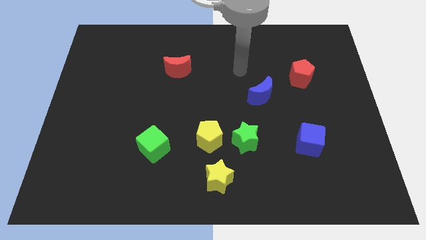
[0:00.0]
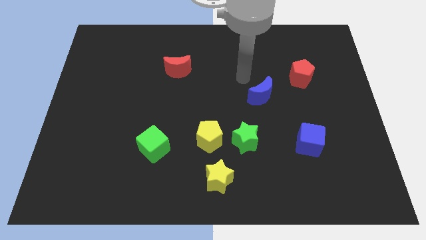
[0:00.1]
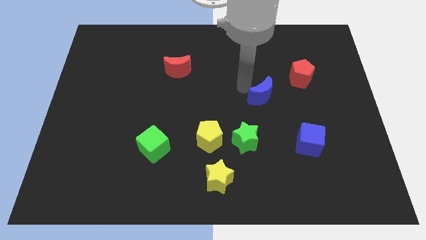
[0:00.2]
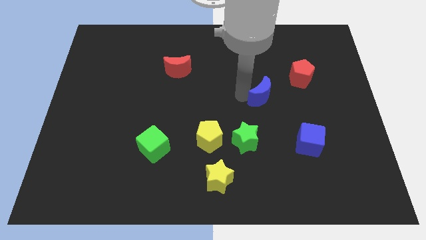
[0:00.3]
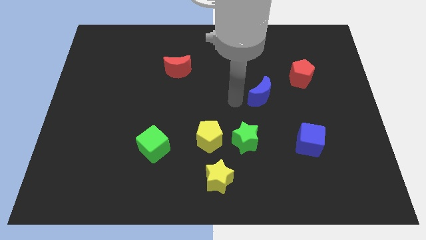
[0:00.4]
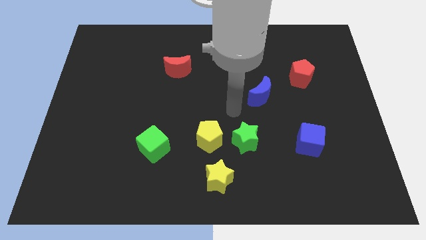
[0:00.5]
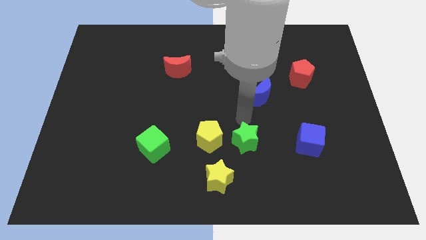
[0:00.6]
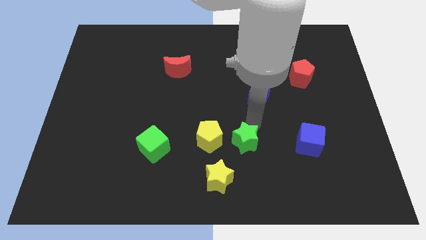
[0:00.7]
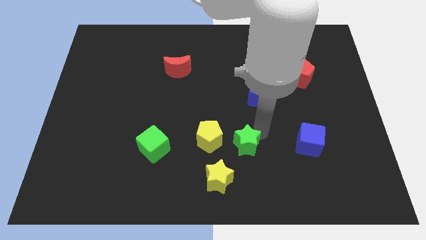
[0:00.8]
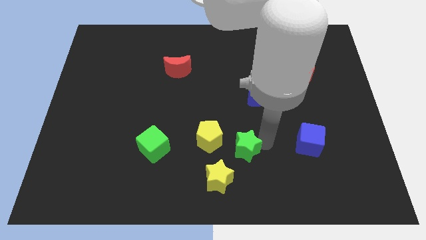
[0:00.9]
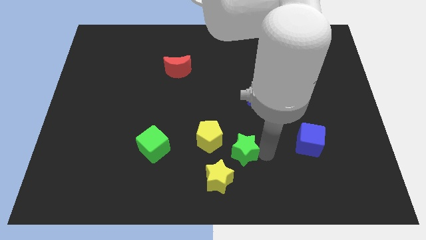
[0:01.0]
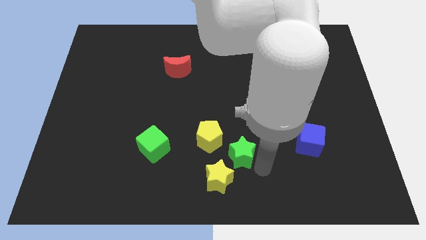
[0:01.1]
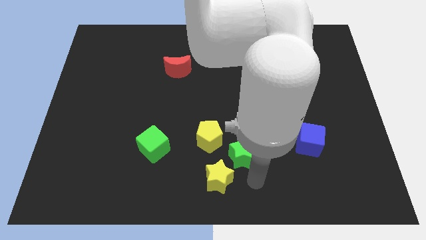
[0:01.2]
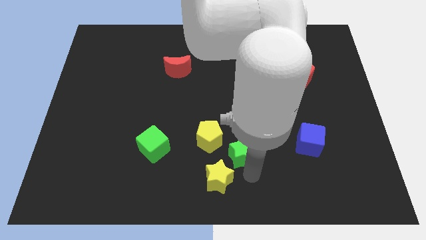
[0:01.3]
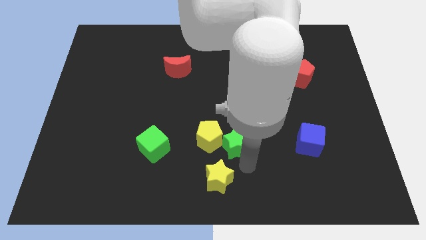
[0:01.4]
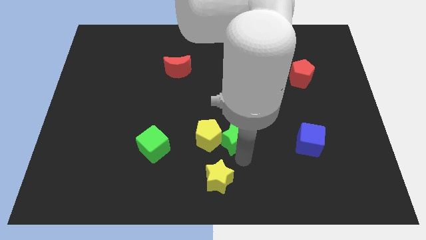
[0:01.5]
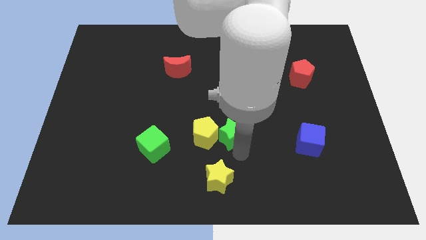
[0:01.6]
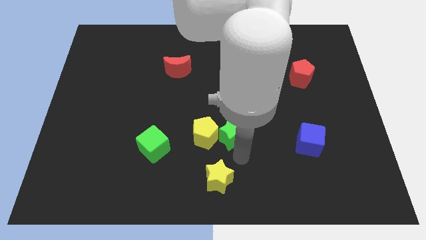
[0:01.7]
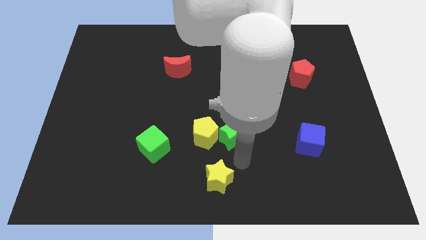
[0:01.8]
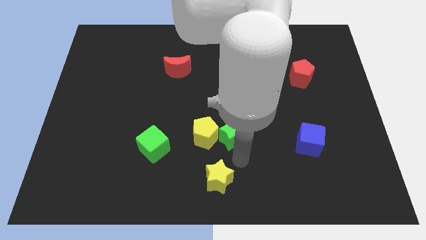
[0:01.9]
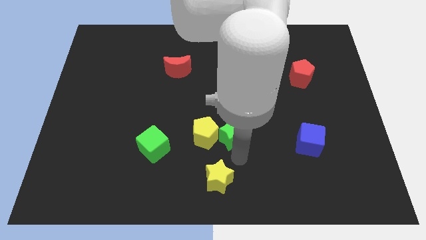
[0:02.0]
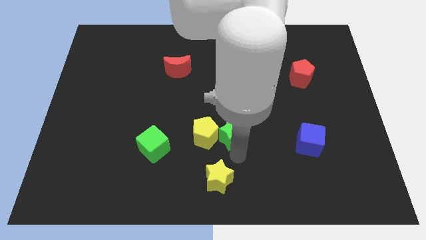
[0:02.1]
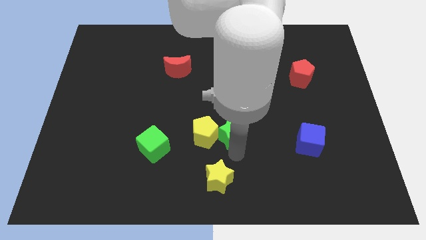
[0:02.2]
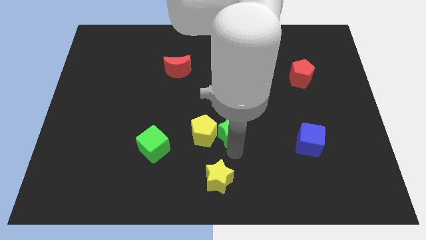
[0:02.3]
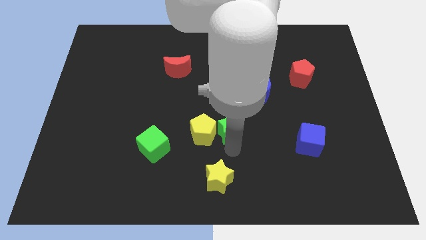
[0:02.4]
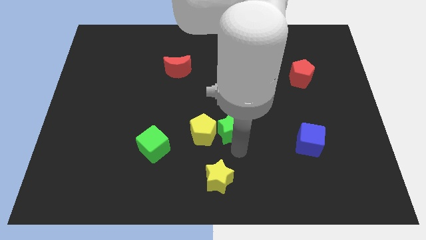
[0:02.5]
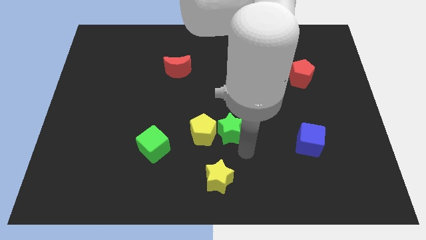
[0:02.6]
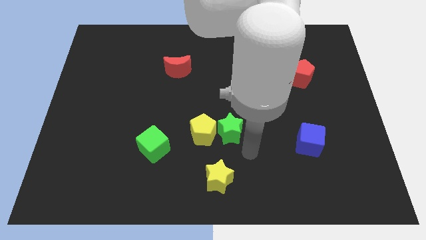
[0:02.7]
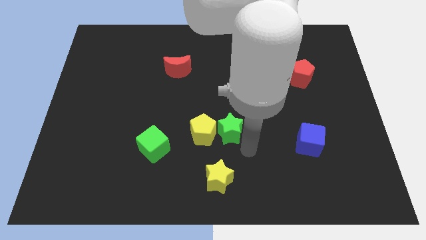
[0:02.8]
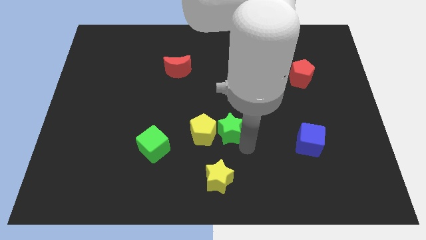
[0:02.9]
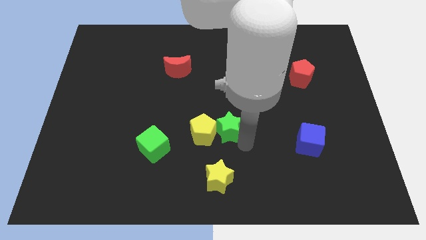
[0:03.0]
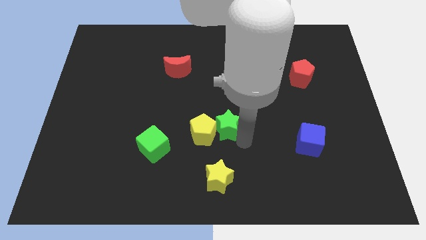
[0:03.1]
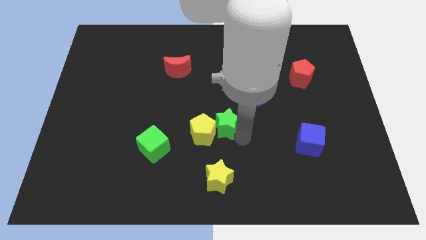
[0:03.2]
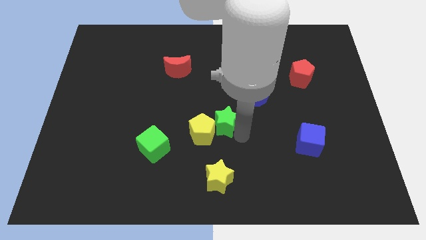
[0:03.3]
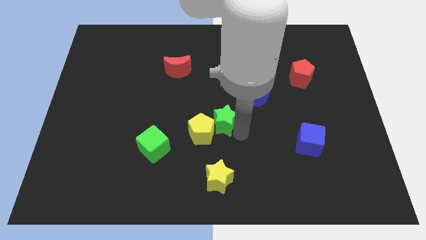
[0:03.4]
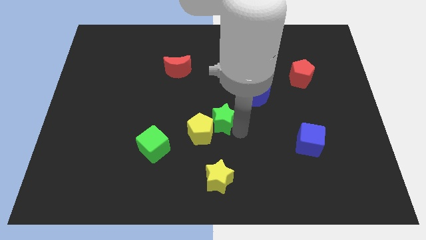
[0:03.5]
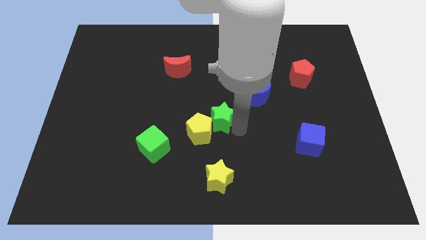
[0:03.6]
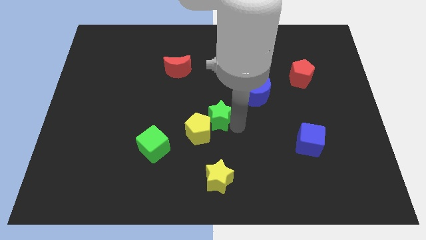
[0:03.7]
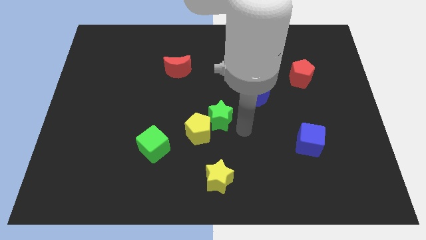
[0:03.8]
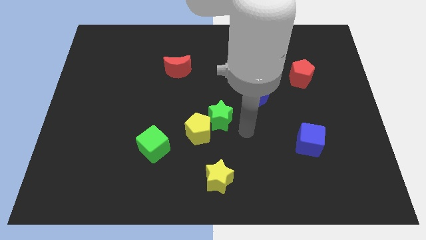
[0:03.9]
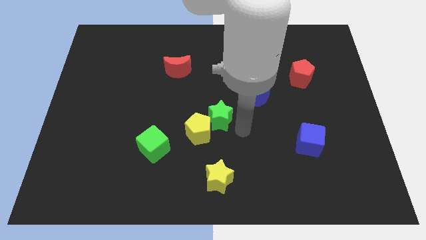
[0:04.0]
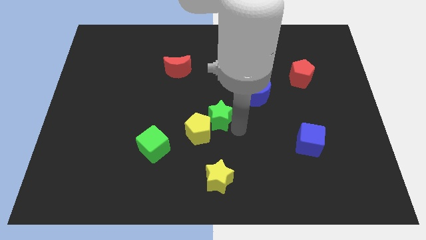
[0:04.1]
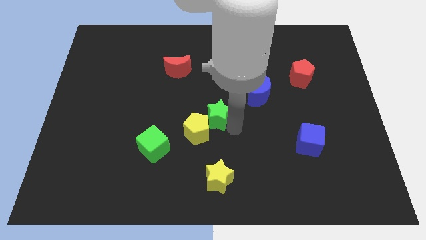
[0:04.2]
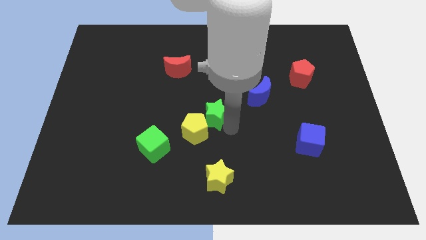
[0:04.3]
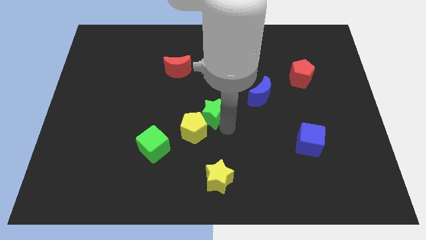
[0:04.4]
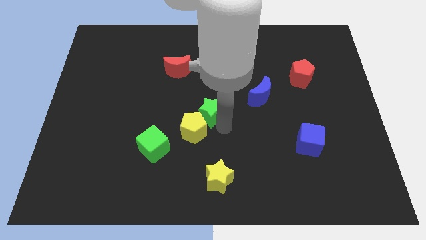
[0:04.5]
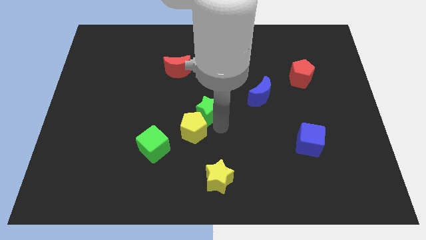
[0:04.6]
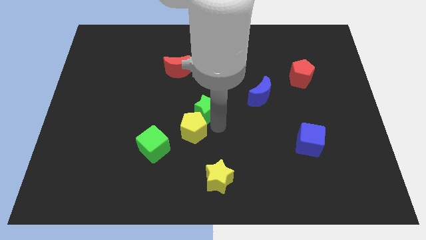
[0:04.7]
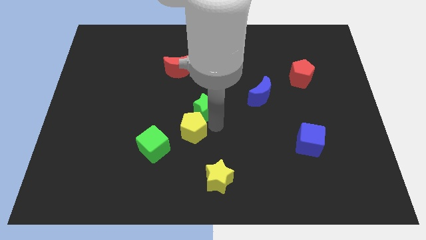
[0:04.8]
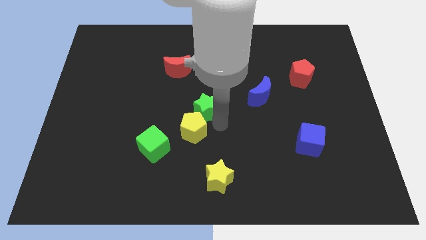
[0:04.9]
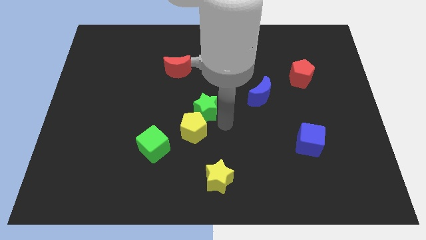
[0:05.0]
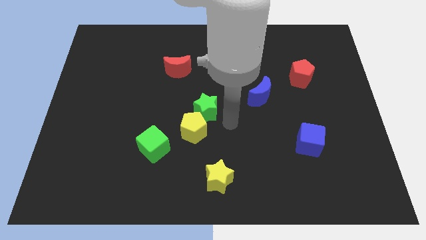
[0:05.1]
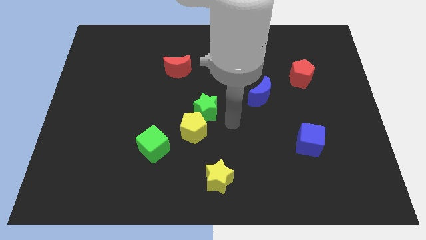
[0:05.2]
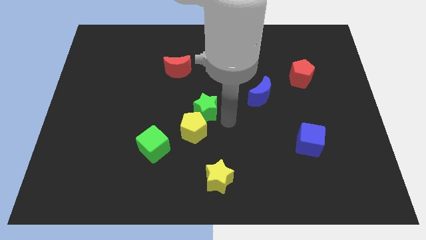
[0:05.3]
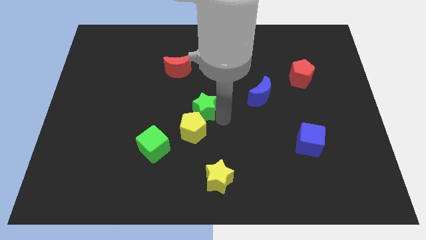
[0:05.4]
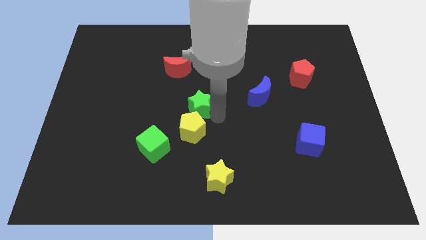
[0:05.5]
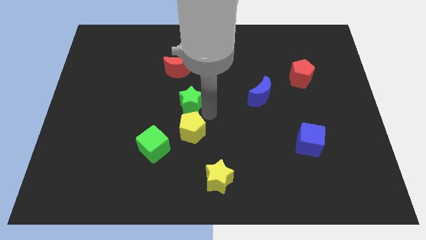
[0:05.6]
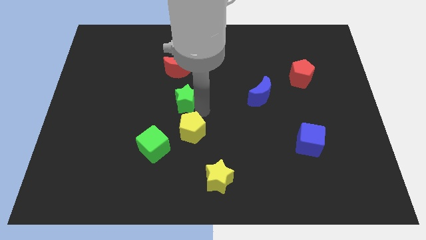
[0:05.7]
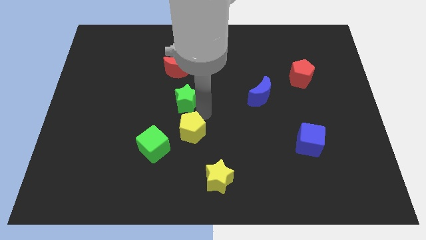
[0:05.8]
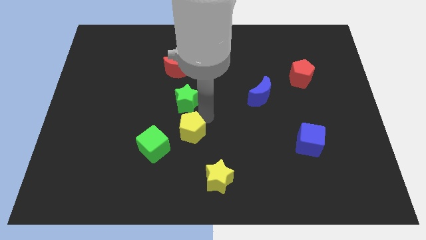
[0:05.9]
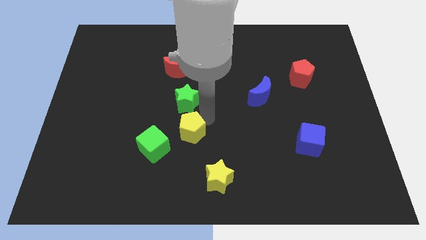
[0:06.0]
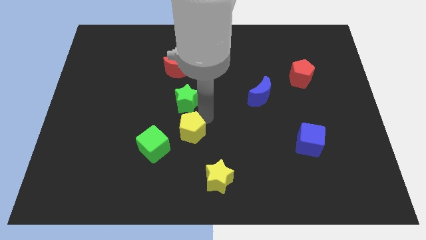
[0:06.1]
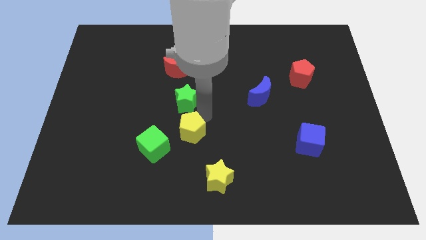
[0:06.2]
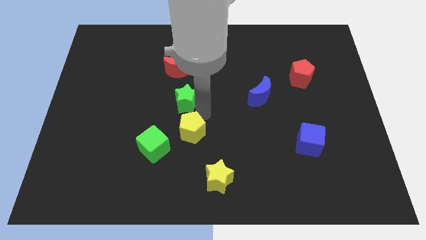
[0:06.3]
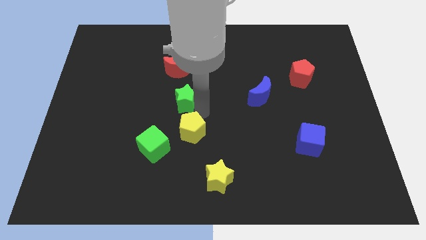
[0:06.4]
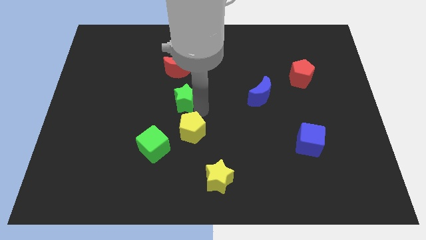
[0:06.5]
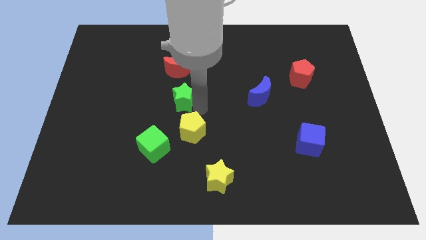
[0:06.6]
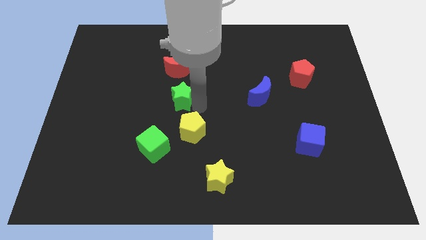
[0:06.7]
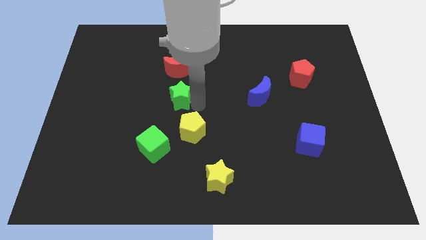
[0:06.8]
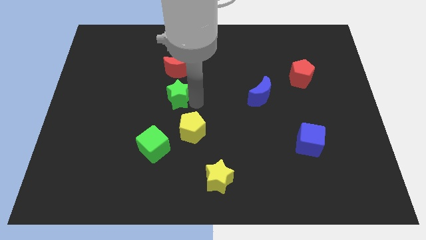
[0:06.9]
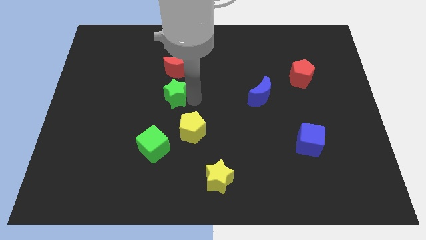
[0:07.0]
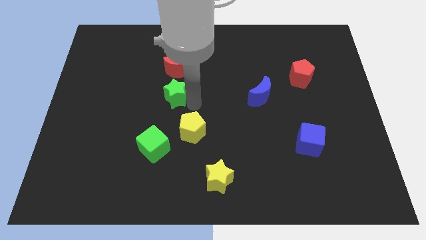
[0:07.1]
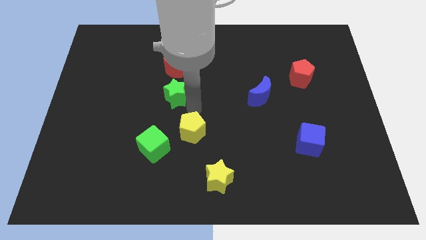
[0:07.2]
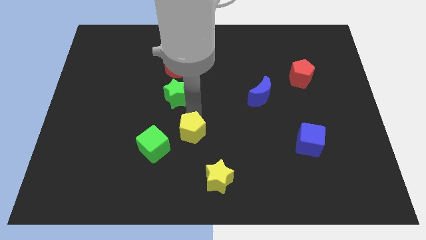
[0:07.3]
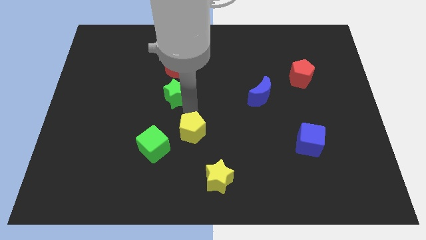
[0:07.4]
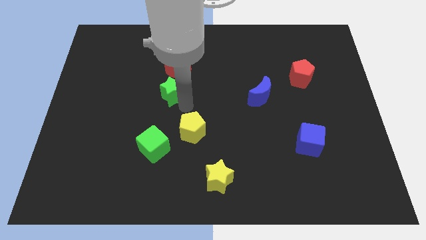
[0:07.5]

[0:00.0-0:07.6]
slide the green star upwards and then left

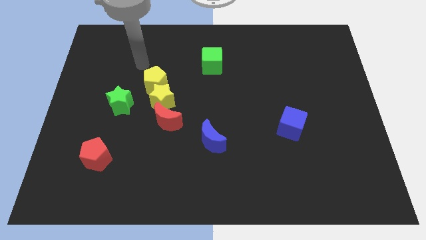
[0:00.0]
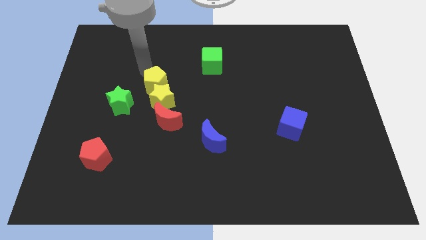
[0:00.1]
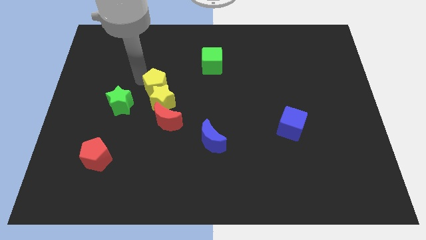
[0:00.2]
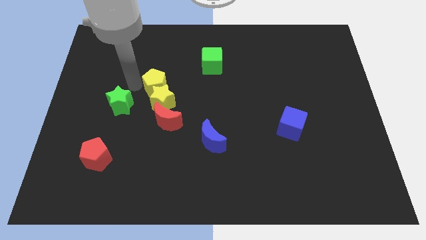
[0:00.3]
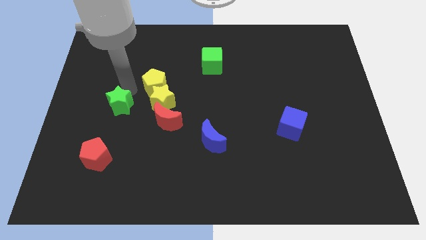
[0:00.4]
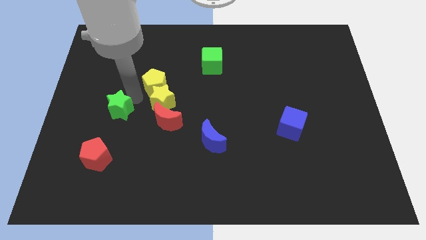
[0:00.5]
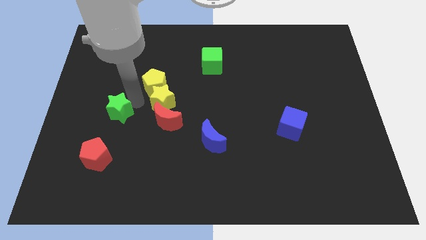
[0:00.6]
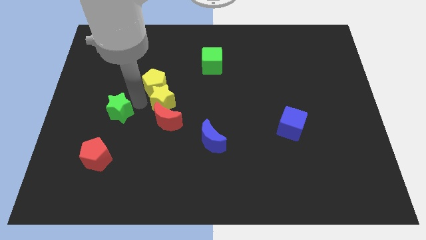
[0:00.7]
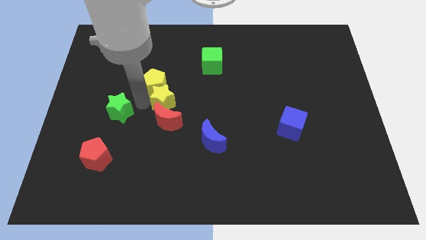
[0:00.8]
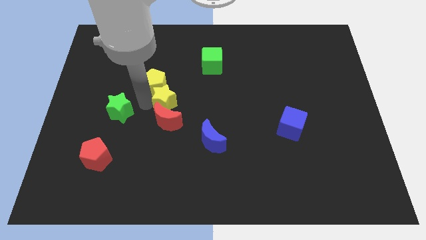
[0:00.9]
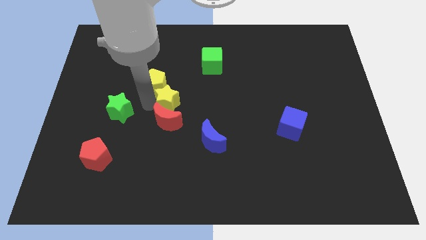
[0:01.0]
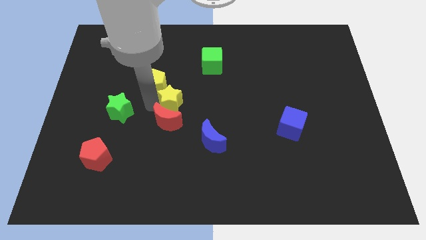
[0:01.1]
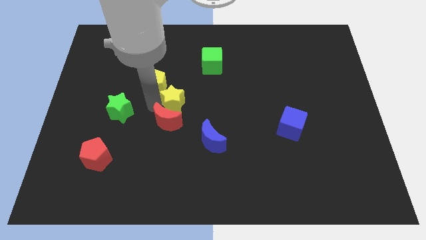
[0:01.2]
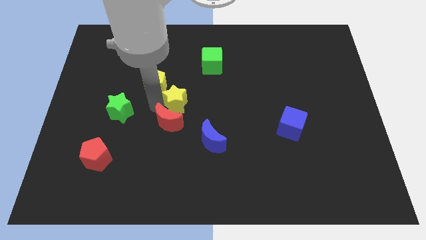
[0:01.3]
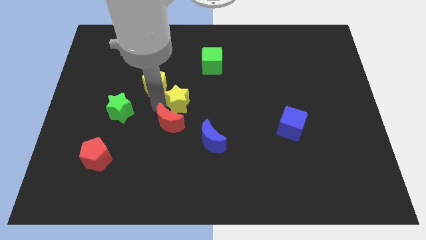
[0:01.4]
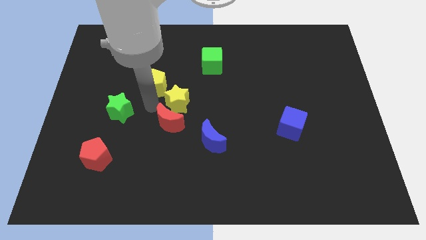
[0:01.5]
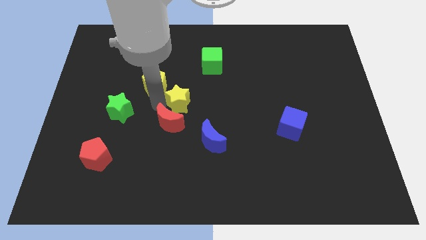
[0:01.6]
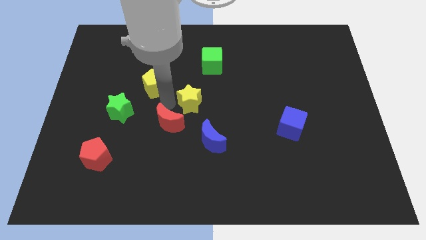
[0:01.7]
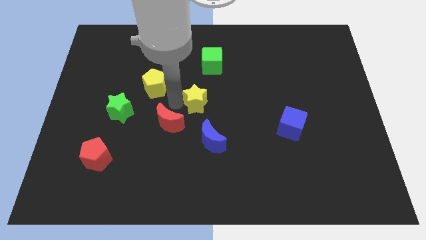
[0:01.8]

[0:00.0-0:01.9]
slightly push the yellow star right
